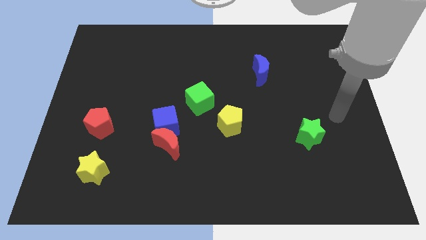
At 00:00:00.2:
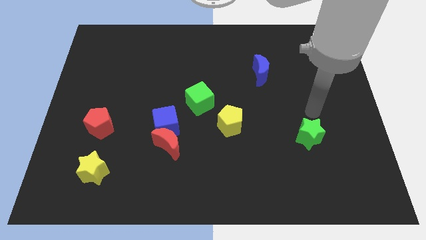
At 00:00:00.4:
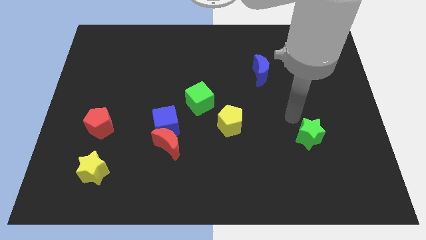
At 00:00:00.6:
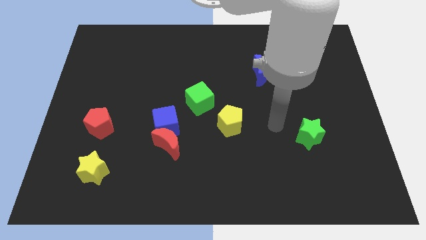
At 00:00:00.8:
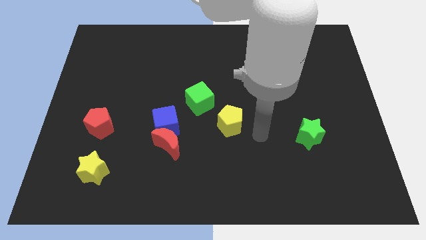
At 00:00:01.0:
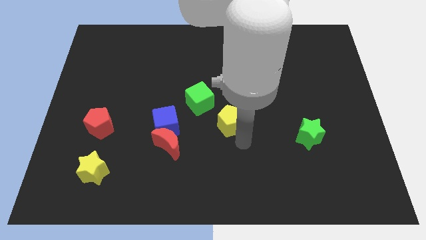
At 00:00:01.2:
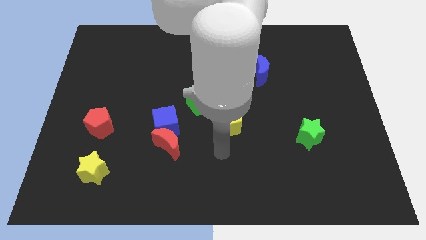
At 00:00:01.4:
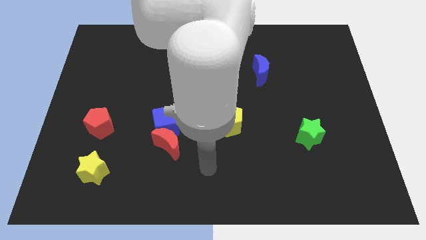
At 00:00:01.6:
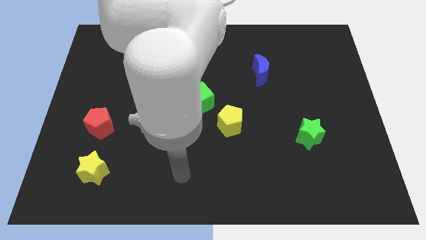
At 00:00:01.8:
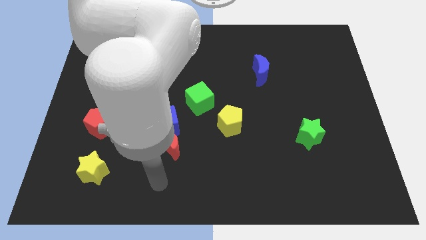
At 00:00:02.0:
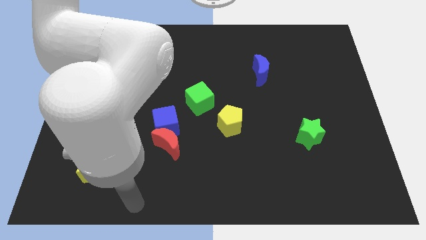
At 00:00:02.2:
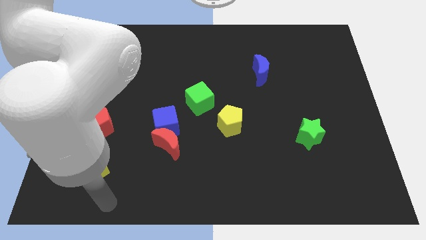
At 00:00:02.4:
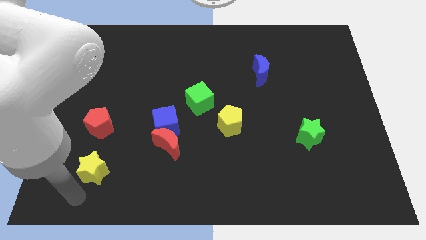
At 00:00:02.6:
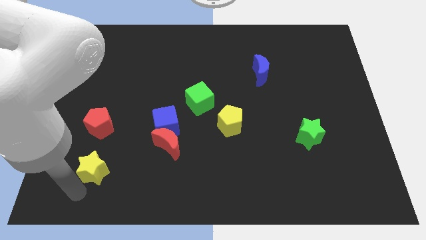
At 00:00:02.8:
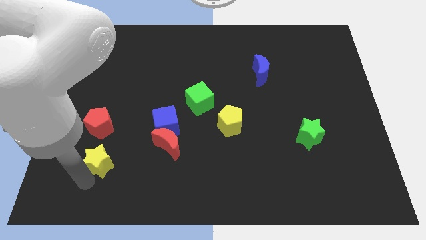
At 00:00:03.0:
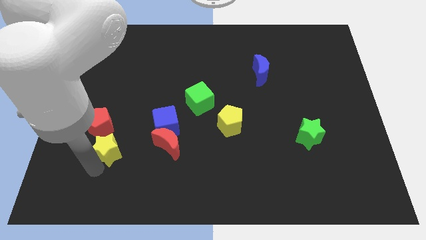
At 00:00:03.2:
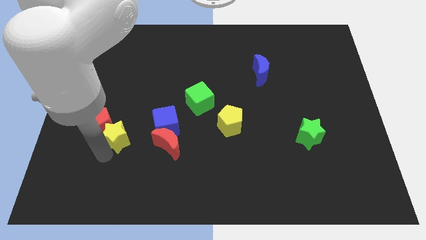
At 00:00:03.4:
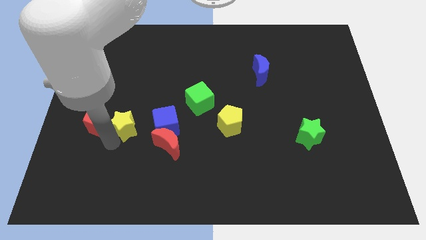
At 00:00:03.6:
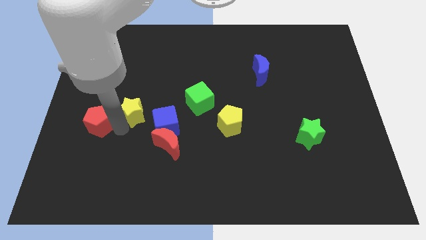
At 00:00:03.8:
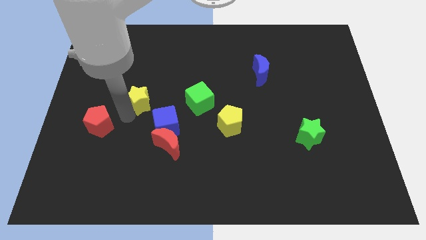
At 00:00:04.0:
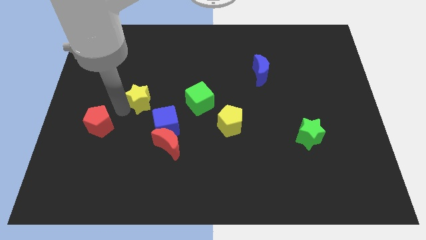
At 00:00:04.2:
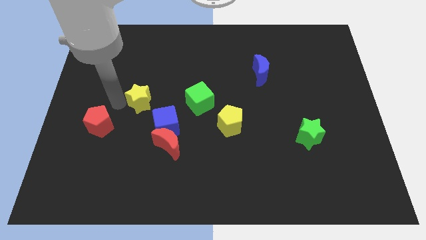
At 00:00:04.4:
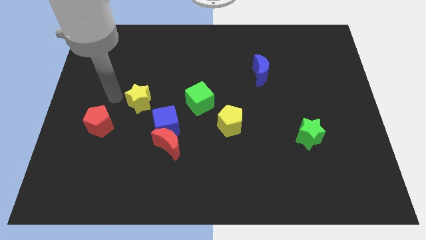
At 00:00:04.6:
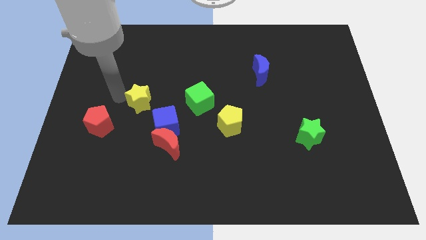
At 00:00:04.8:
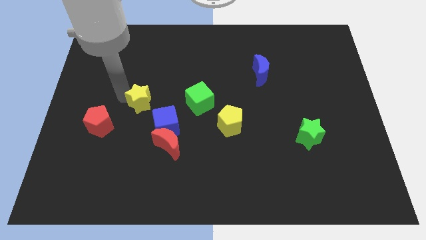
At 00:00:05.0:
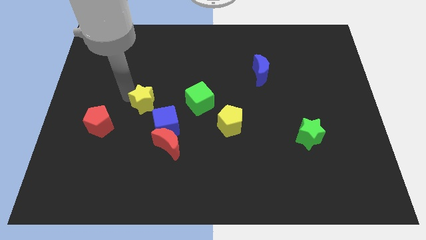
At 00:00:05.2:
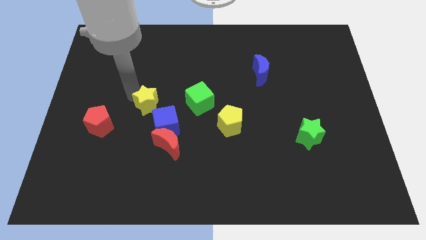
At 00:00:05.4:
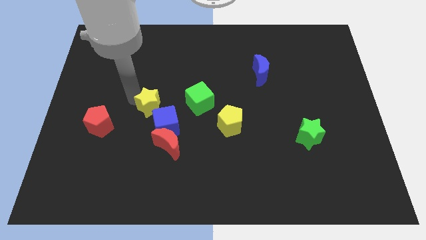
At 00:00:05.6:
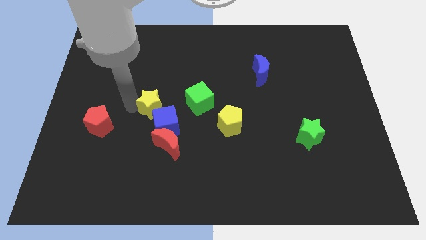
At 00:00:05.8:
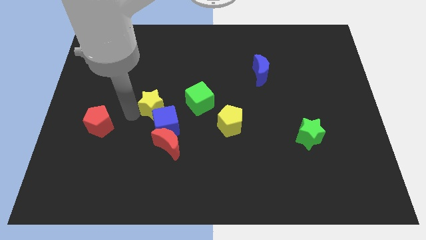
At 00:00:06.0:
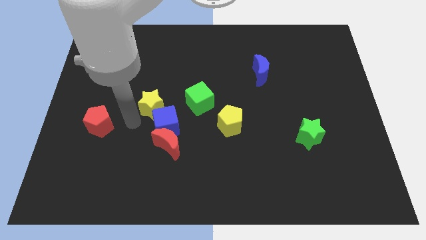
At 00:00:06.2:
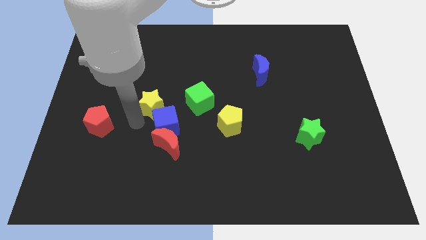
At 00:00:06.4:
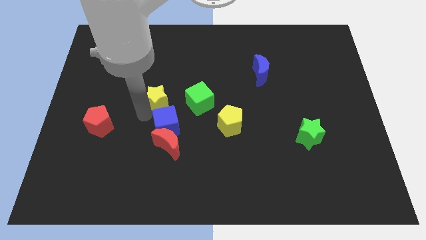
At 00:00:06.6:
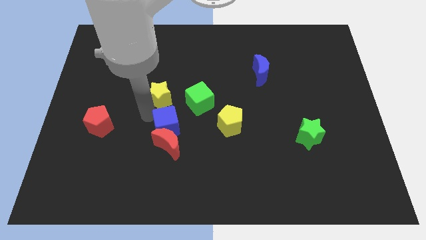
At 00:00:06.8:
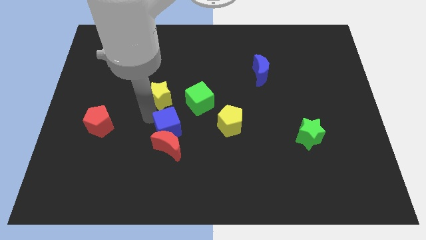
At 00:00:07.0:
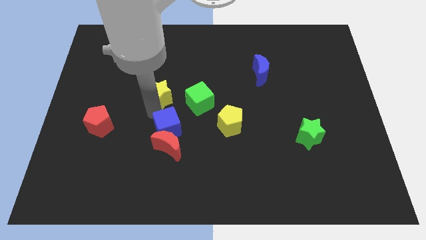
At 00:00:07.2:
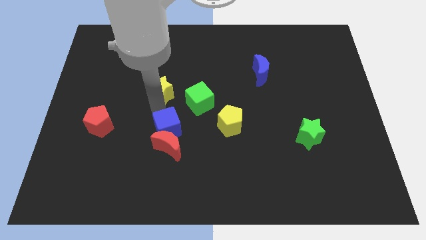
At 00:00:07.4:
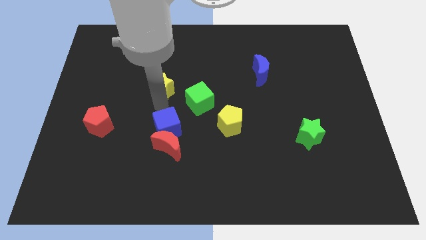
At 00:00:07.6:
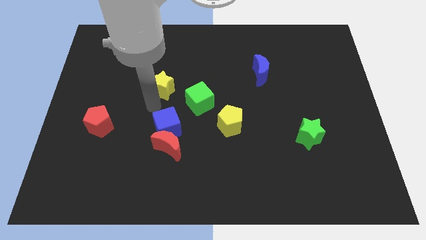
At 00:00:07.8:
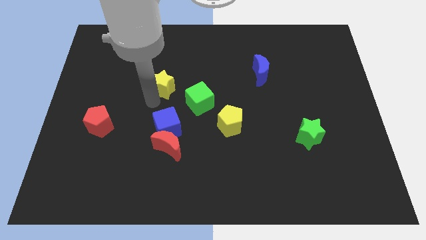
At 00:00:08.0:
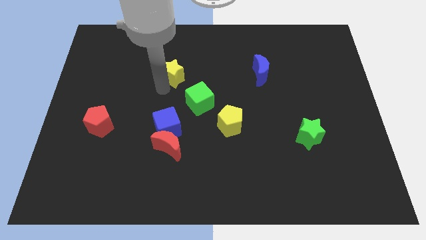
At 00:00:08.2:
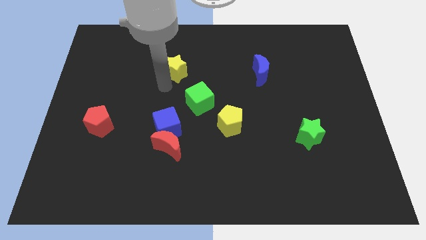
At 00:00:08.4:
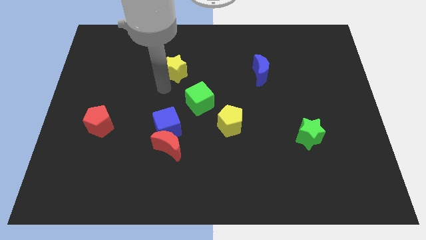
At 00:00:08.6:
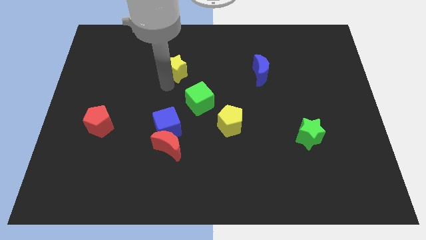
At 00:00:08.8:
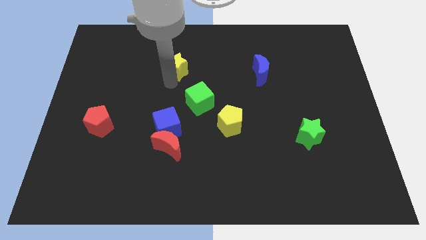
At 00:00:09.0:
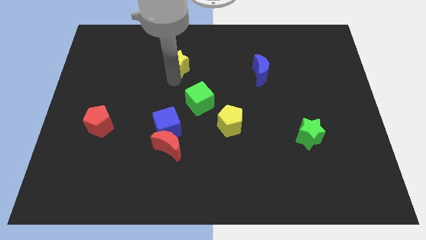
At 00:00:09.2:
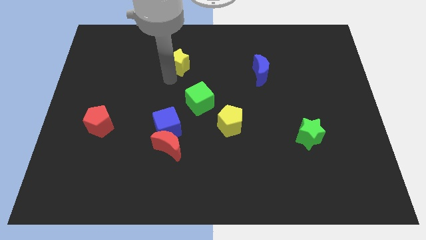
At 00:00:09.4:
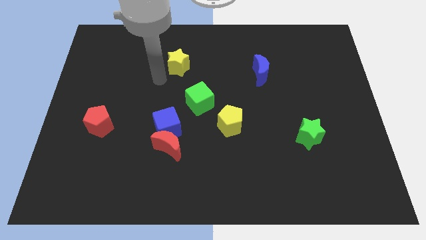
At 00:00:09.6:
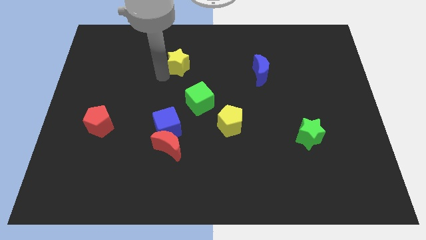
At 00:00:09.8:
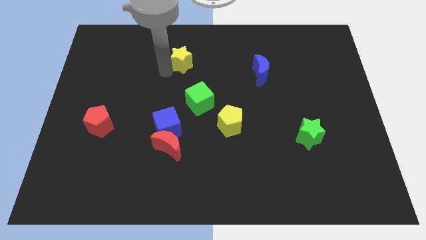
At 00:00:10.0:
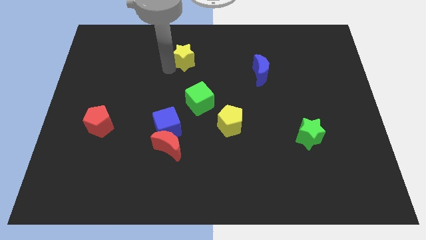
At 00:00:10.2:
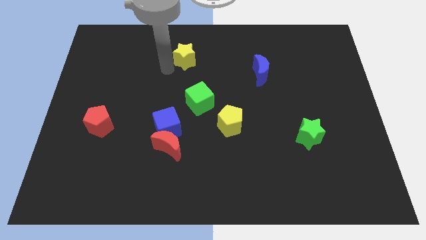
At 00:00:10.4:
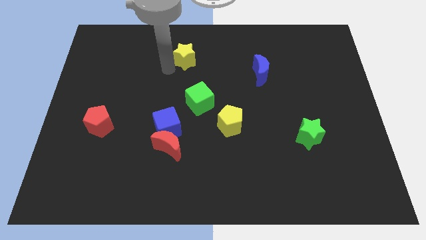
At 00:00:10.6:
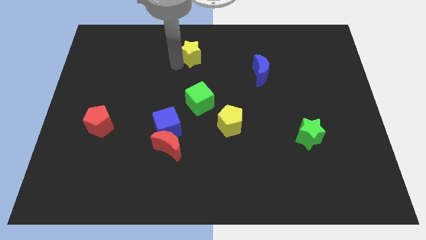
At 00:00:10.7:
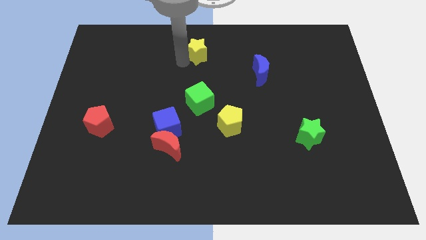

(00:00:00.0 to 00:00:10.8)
slide the yellow star to the top
